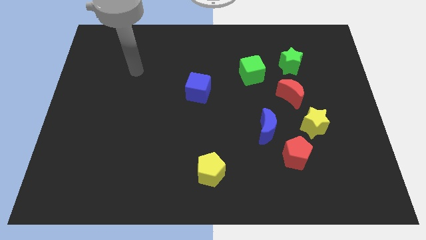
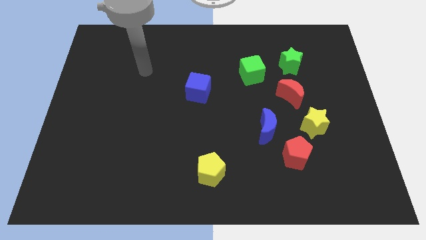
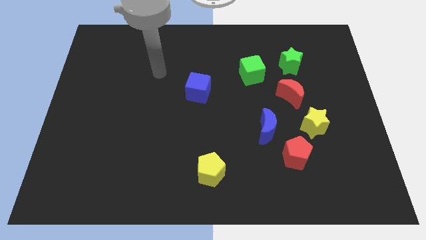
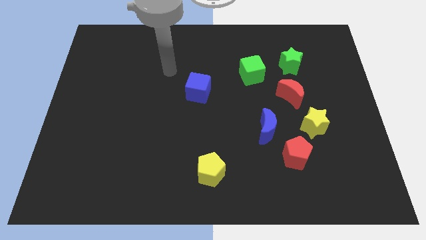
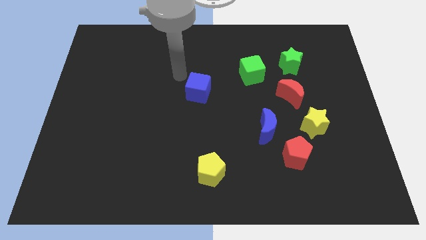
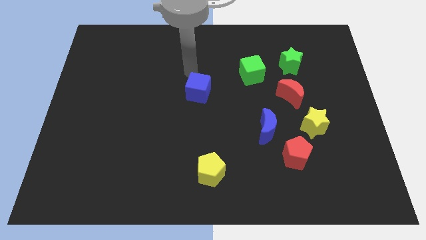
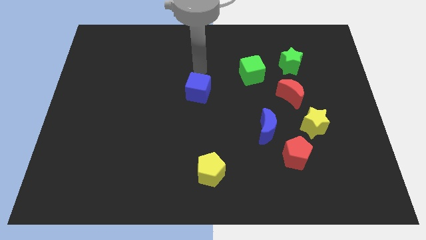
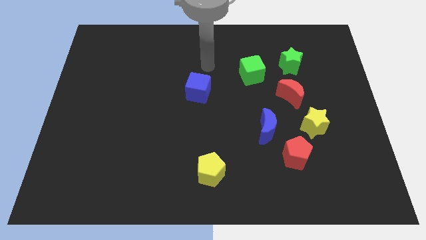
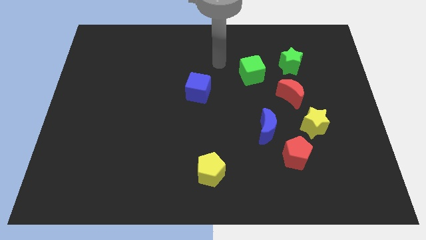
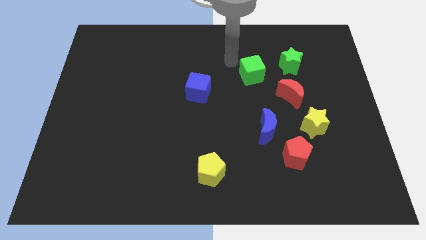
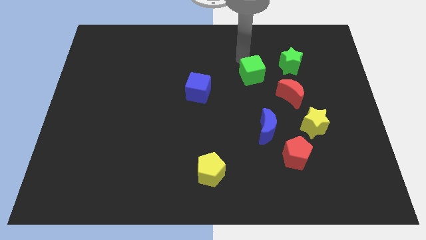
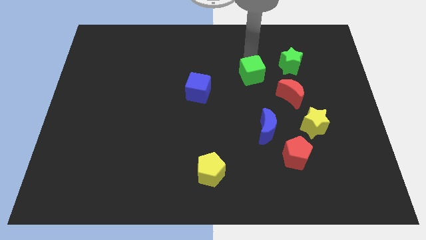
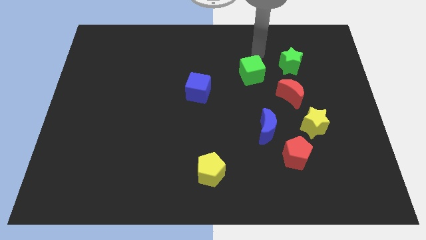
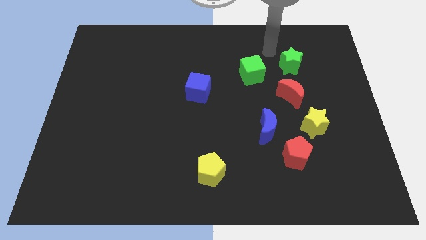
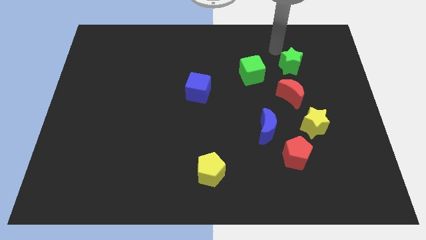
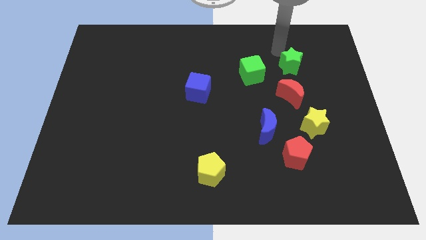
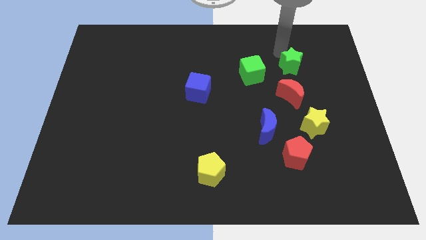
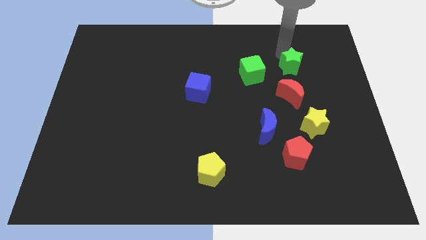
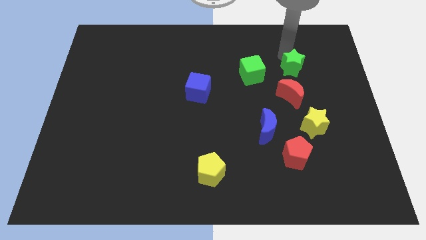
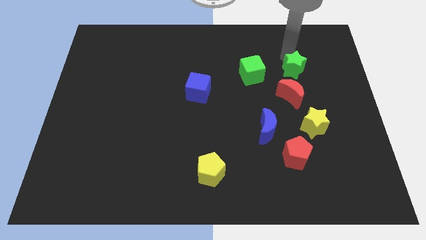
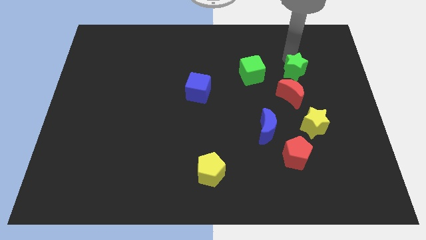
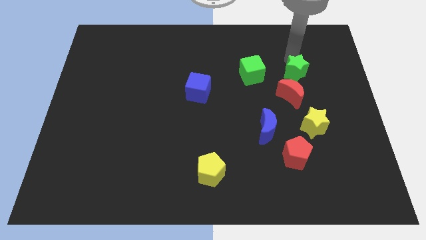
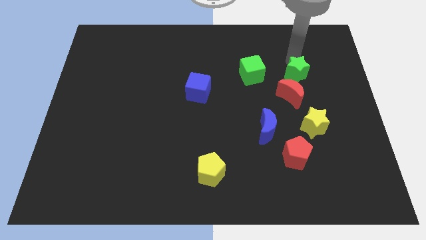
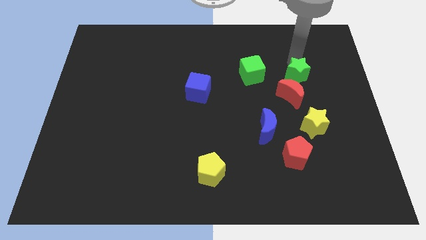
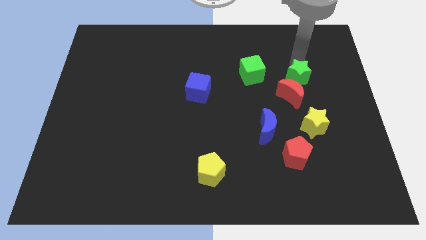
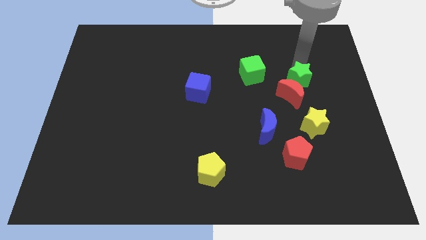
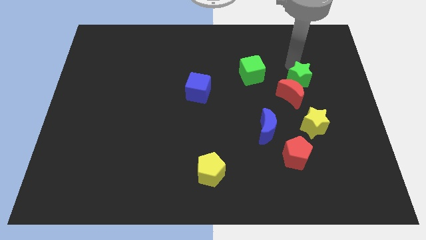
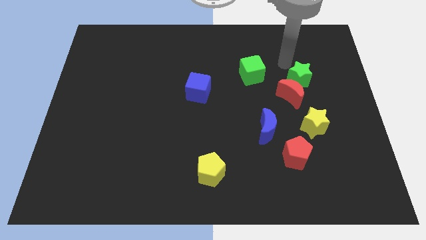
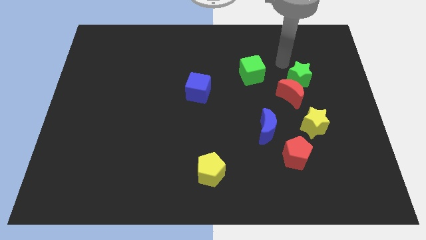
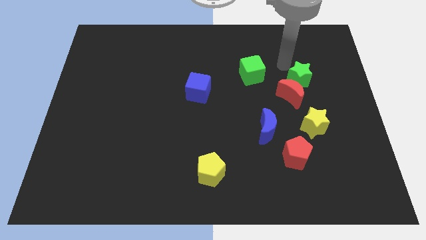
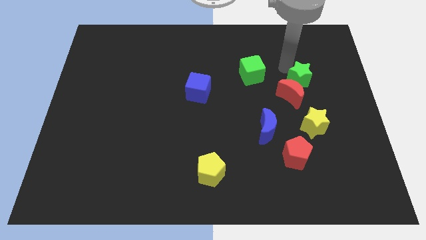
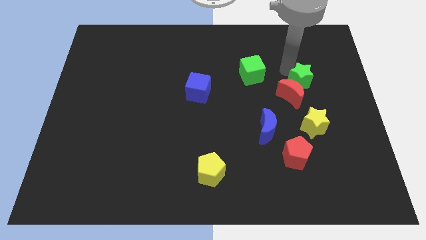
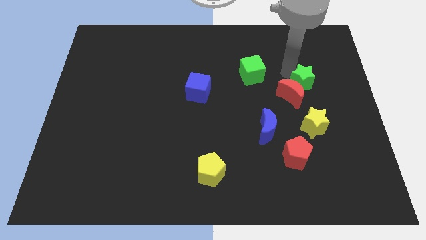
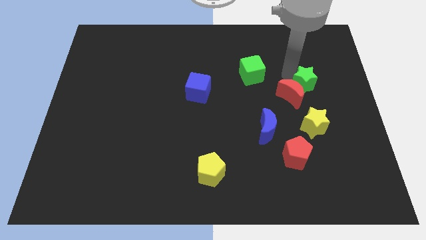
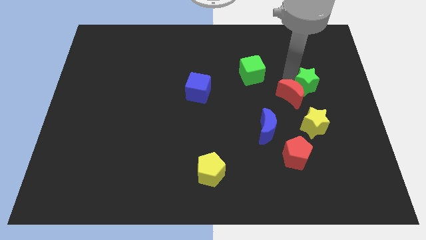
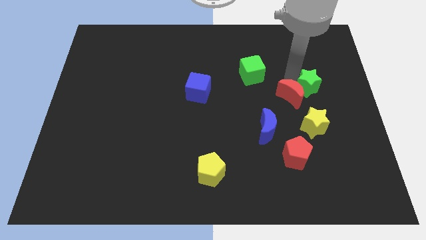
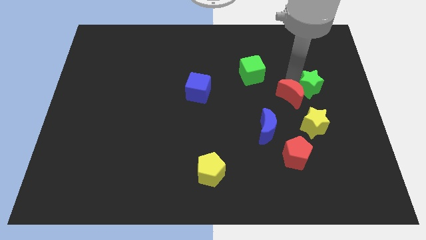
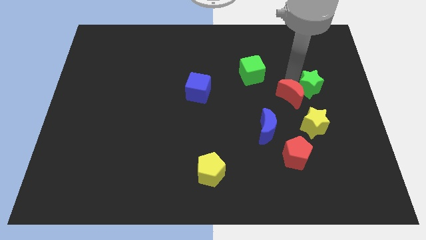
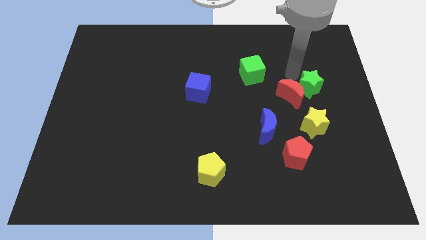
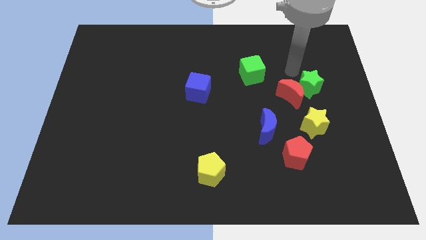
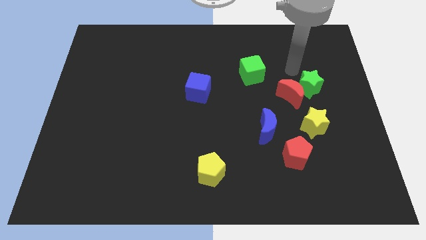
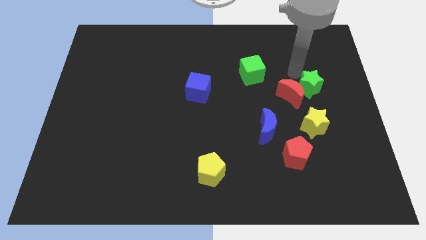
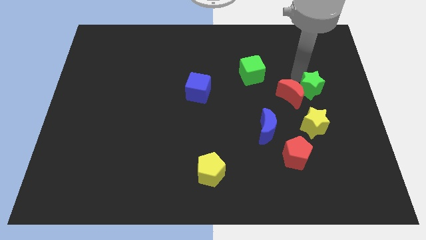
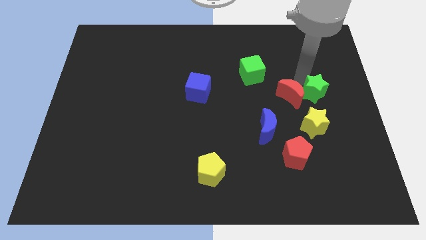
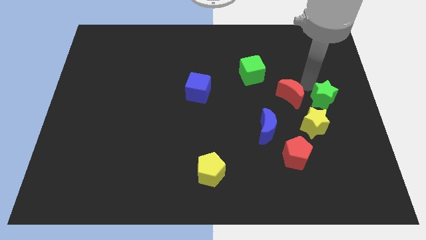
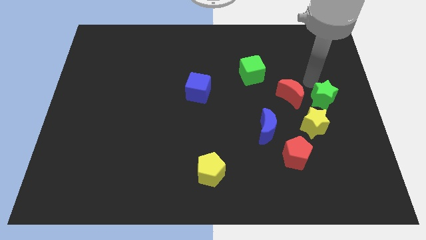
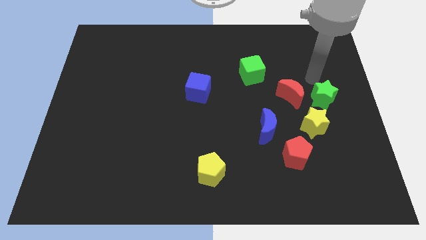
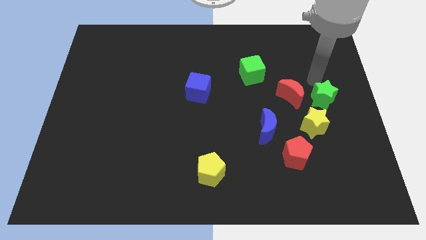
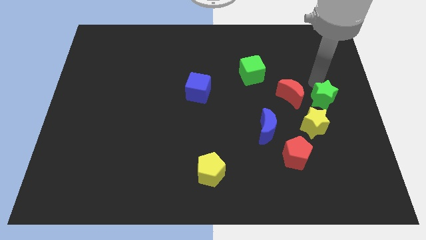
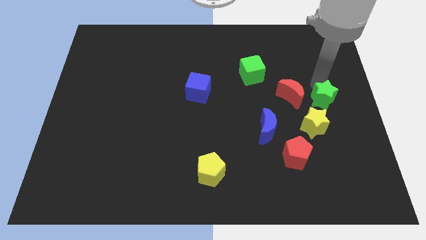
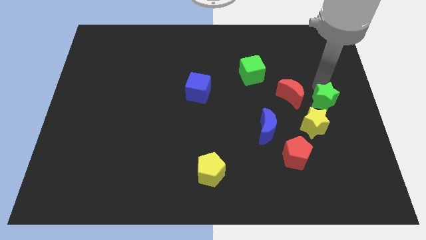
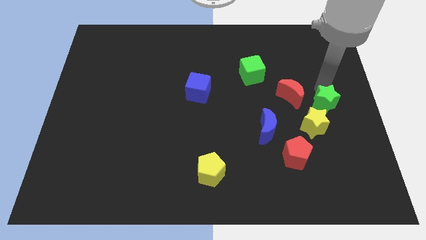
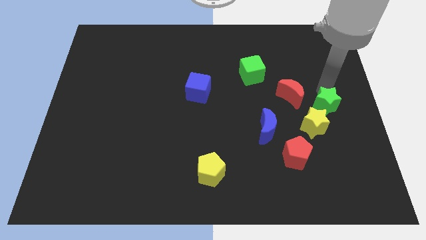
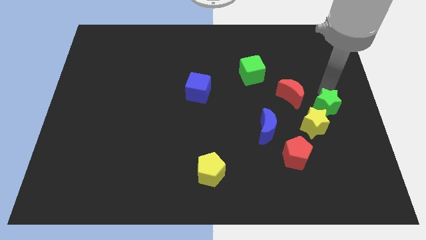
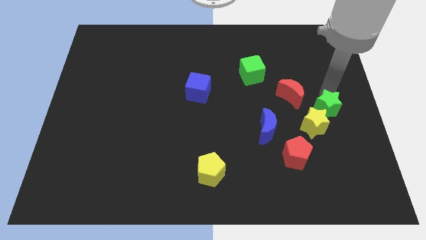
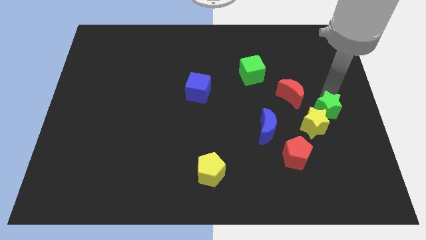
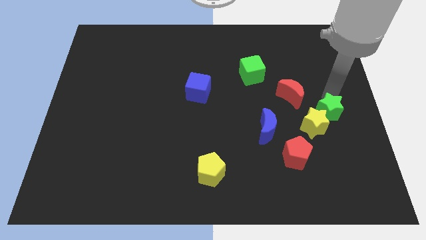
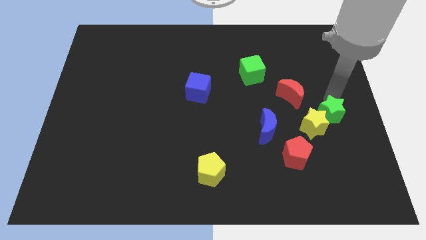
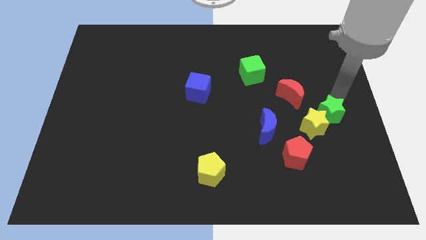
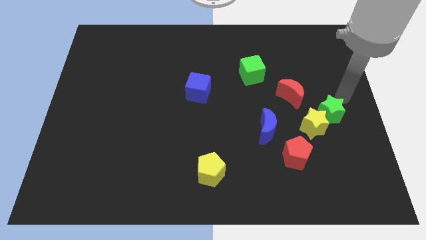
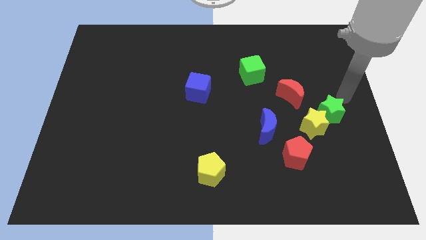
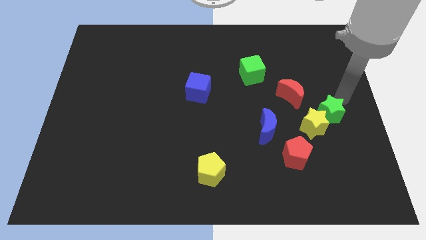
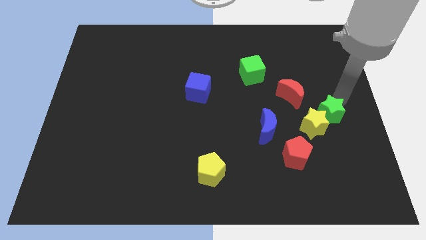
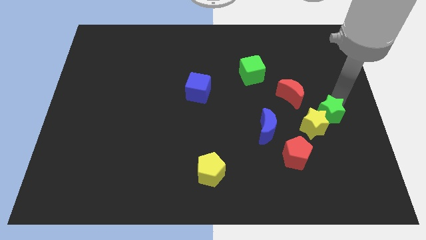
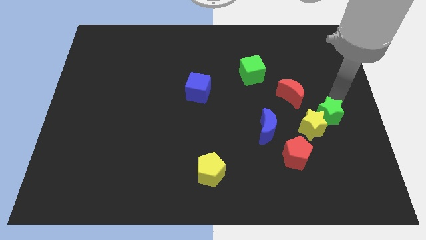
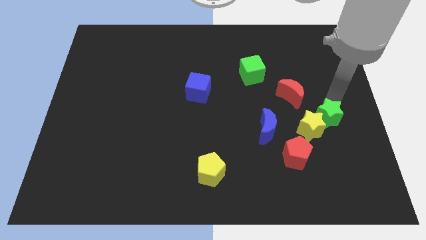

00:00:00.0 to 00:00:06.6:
push the green star right of the blue moon
